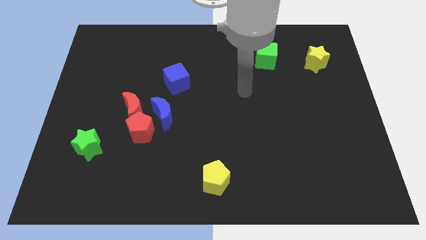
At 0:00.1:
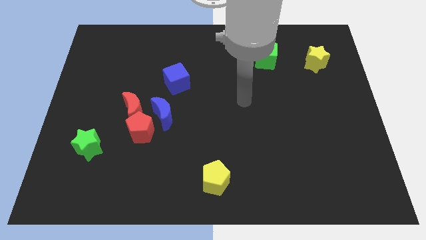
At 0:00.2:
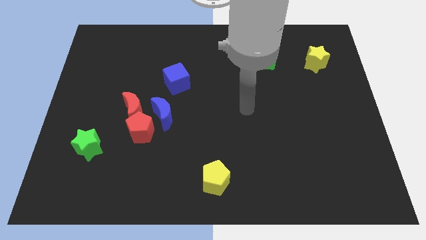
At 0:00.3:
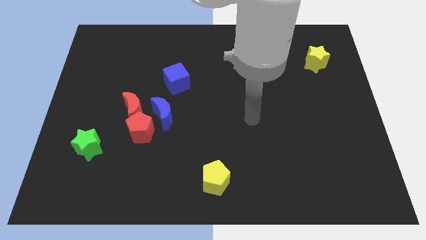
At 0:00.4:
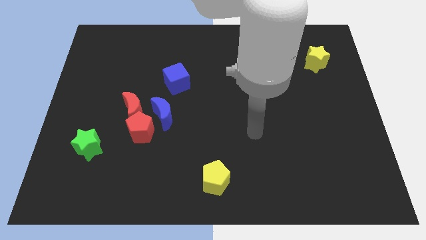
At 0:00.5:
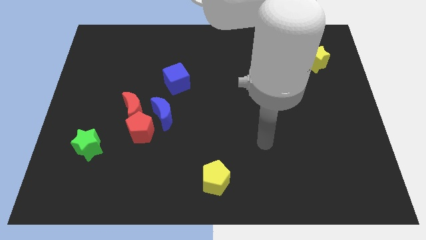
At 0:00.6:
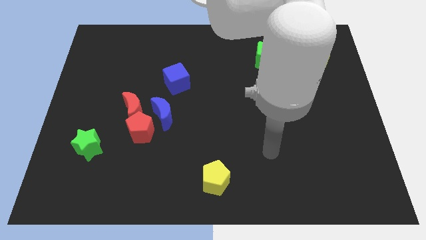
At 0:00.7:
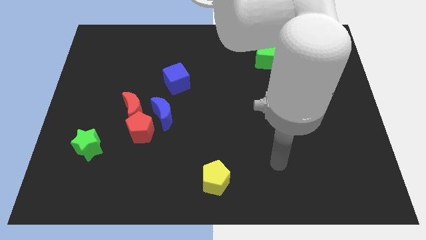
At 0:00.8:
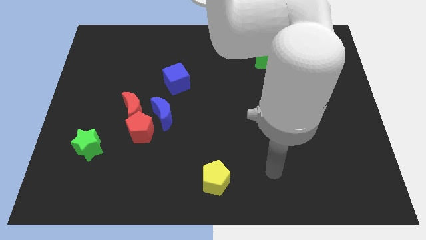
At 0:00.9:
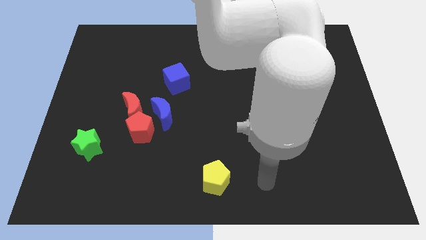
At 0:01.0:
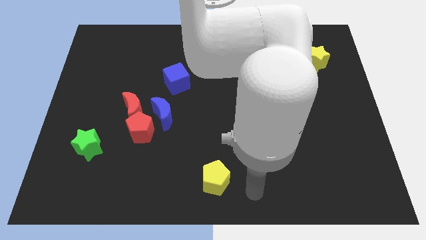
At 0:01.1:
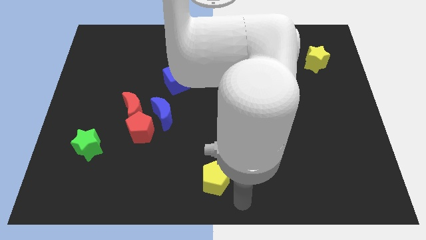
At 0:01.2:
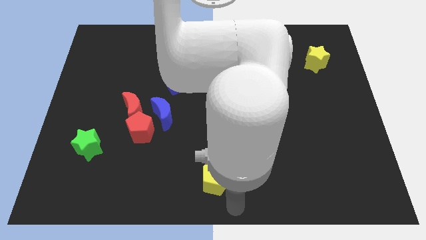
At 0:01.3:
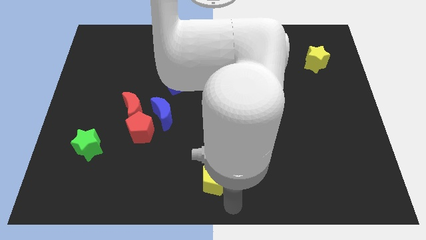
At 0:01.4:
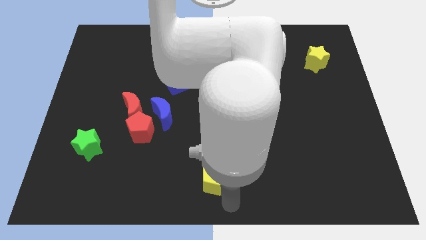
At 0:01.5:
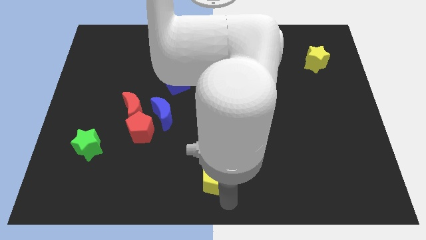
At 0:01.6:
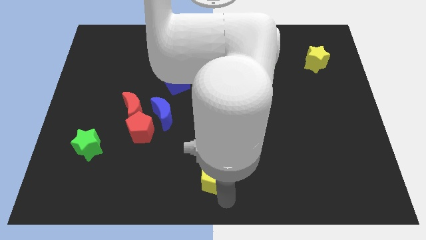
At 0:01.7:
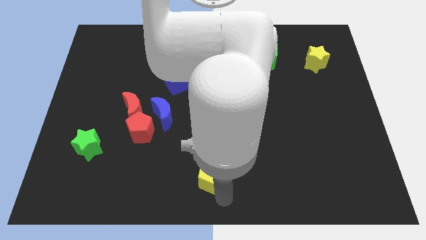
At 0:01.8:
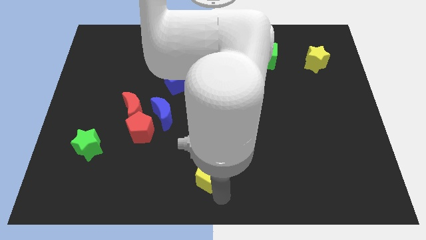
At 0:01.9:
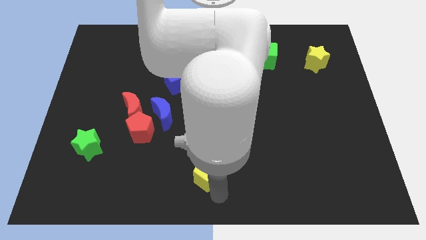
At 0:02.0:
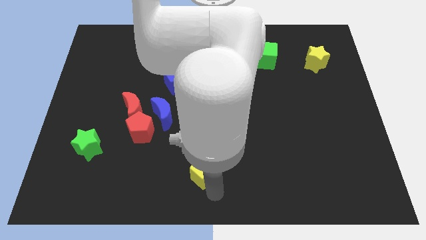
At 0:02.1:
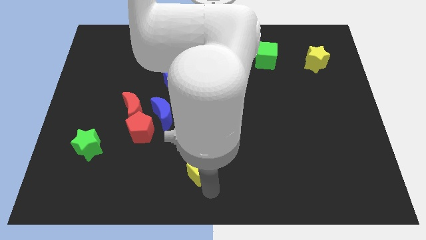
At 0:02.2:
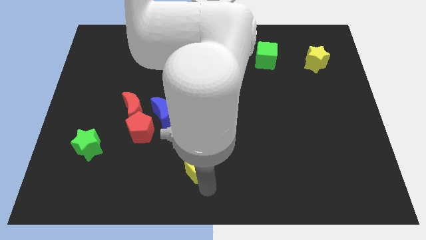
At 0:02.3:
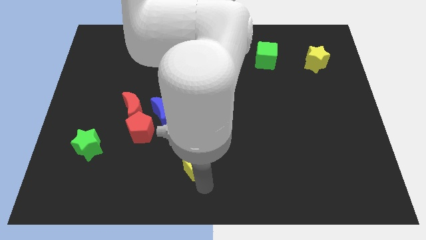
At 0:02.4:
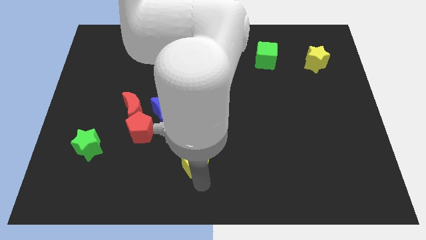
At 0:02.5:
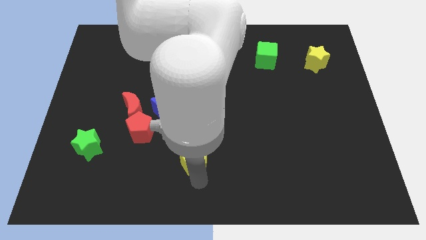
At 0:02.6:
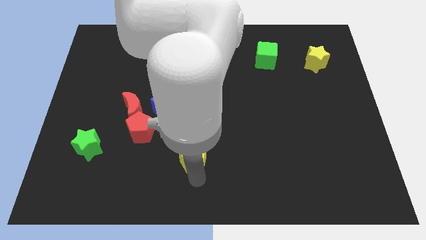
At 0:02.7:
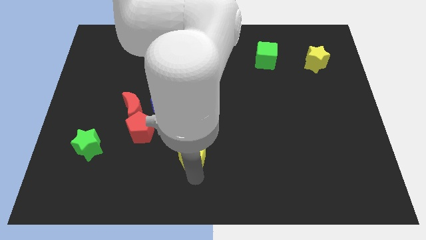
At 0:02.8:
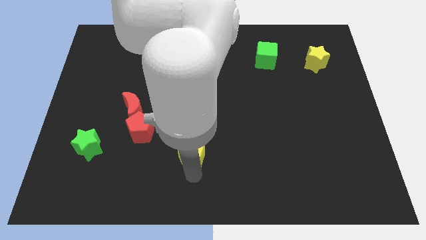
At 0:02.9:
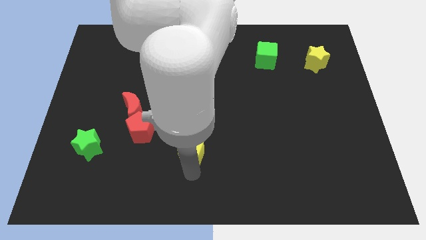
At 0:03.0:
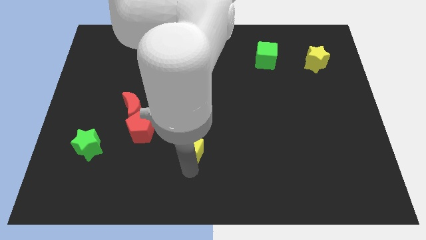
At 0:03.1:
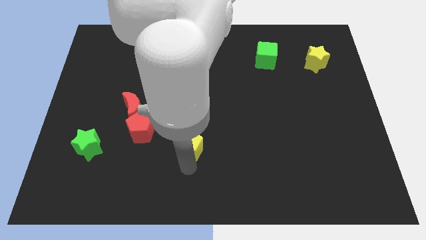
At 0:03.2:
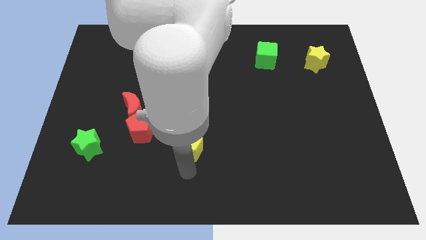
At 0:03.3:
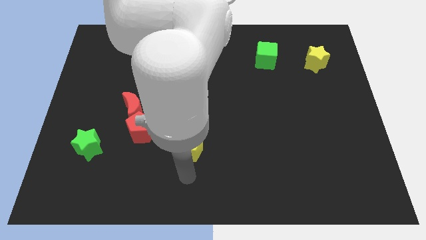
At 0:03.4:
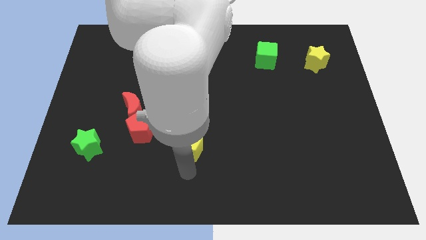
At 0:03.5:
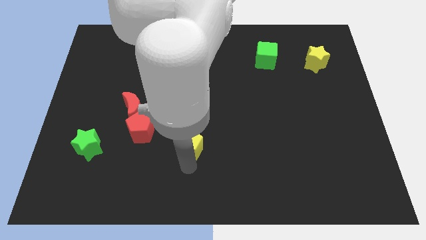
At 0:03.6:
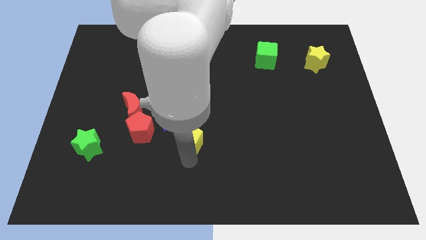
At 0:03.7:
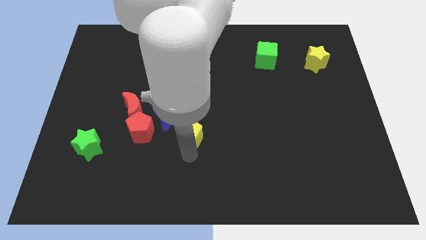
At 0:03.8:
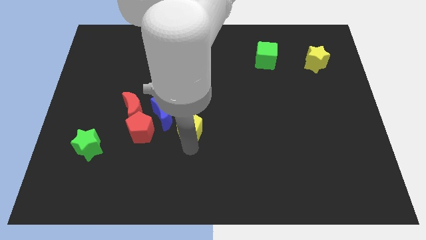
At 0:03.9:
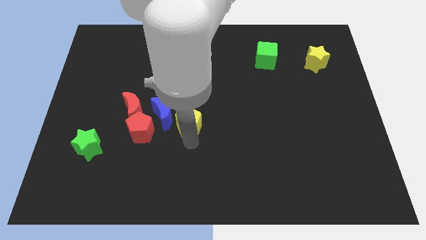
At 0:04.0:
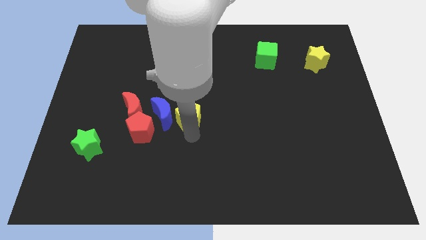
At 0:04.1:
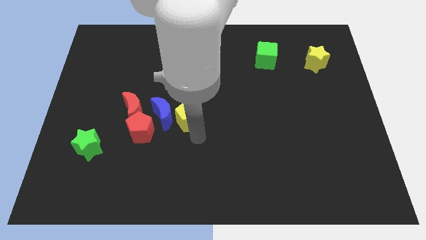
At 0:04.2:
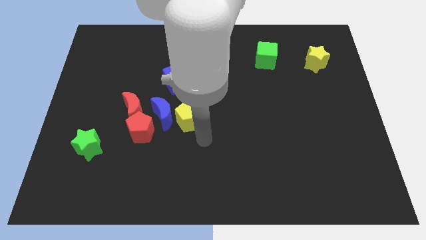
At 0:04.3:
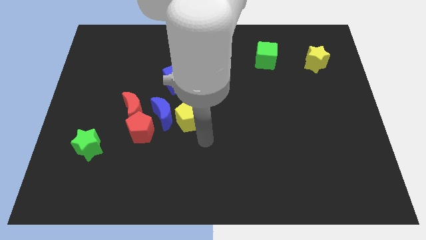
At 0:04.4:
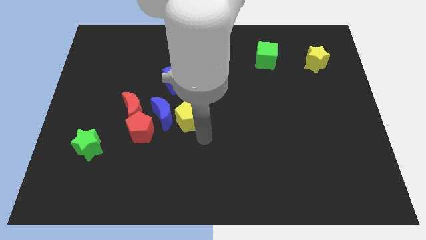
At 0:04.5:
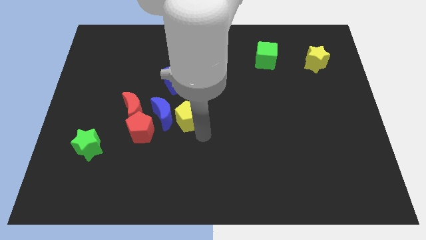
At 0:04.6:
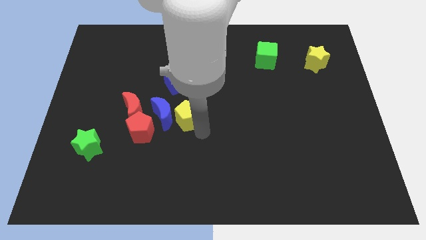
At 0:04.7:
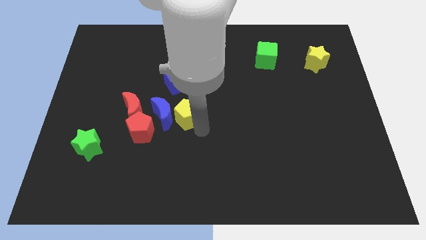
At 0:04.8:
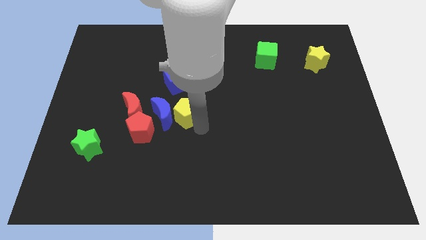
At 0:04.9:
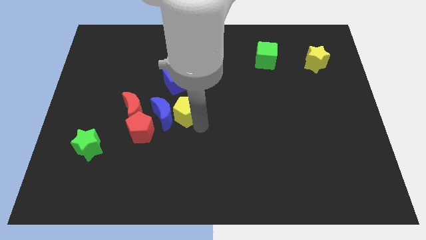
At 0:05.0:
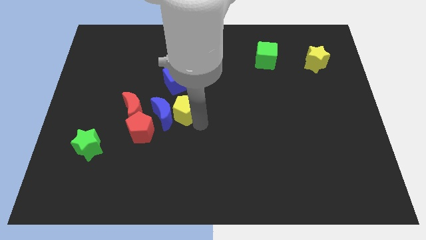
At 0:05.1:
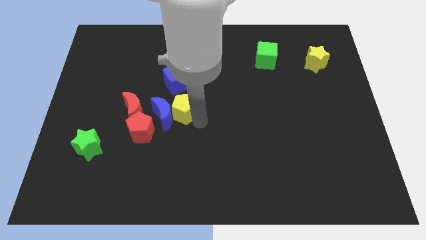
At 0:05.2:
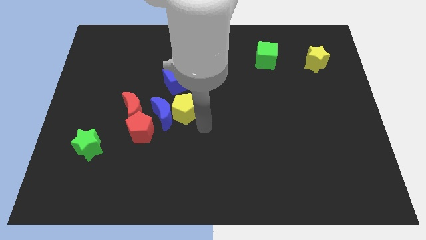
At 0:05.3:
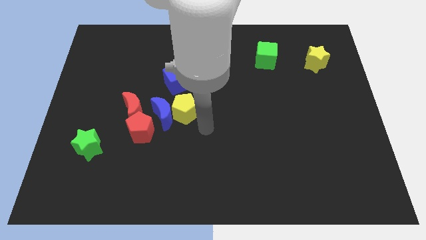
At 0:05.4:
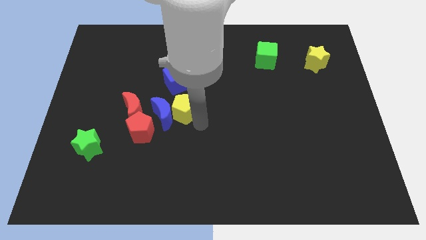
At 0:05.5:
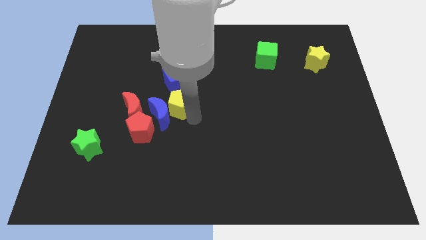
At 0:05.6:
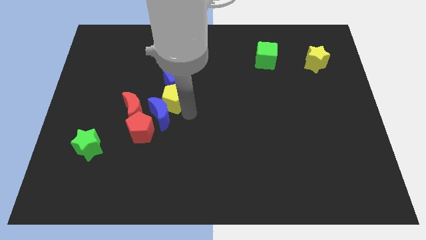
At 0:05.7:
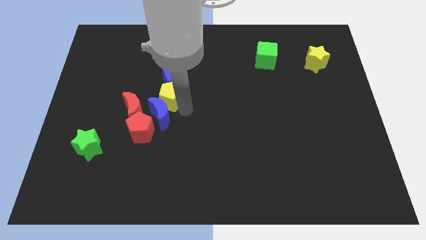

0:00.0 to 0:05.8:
slide the yellow pentagon diagonally upwards and to the left

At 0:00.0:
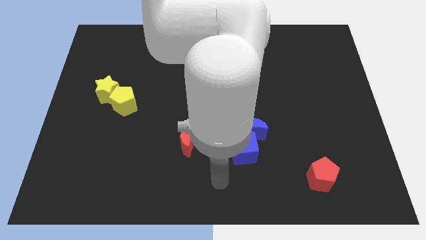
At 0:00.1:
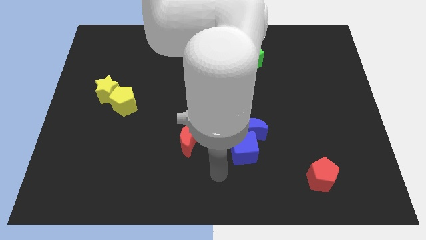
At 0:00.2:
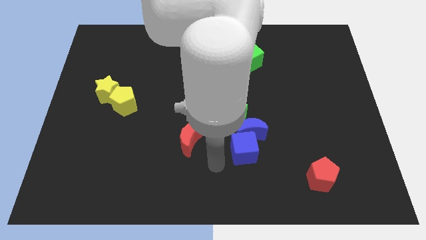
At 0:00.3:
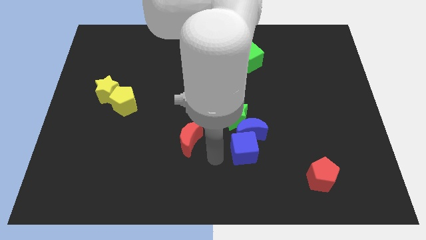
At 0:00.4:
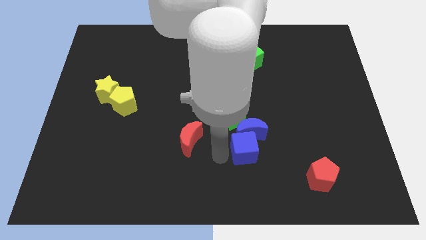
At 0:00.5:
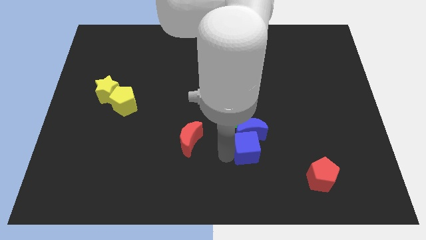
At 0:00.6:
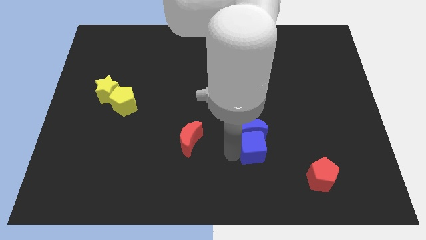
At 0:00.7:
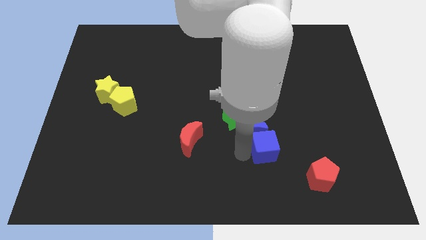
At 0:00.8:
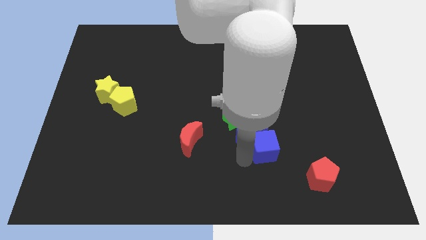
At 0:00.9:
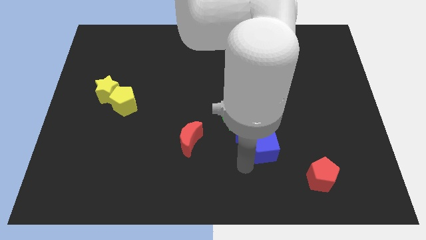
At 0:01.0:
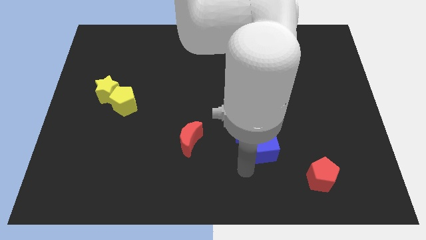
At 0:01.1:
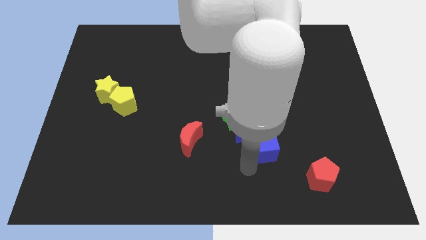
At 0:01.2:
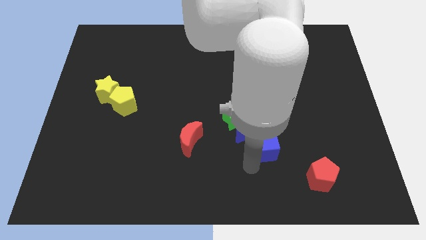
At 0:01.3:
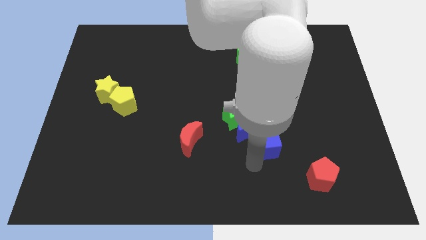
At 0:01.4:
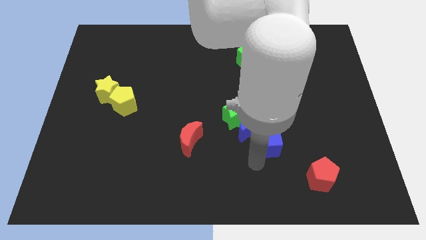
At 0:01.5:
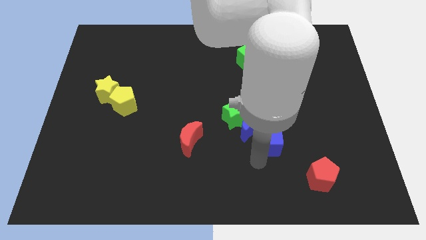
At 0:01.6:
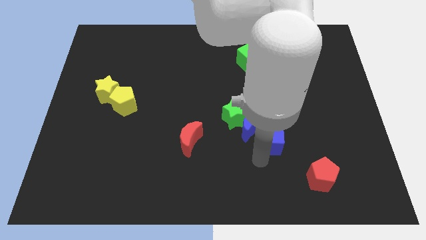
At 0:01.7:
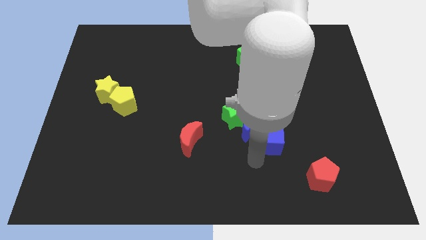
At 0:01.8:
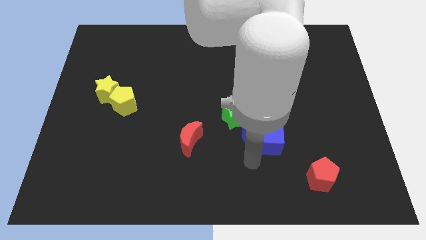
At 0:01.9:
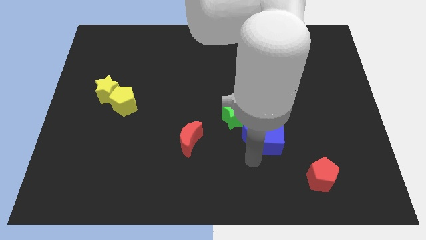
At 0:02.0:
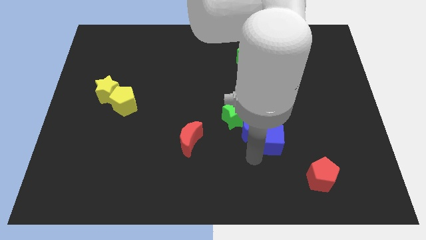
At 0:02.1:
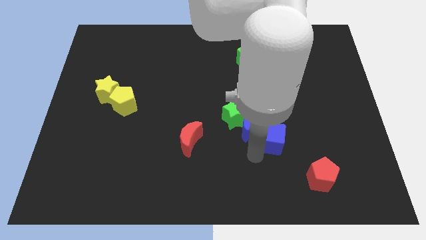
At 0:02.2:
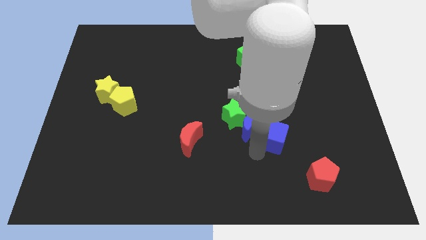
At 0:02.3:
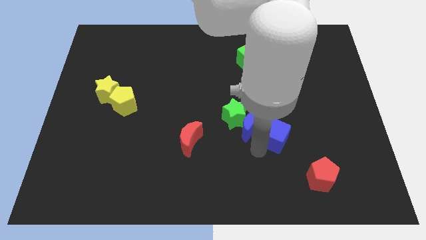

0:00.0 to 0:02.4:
slightly slide the blue cube up and then to the right
